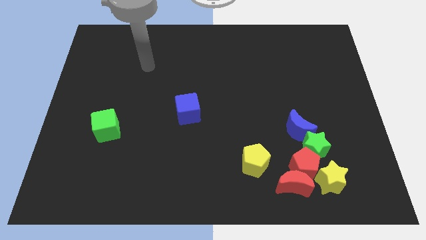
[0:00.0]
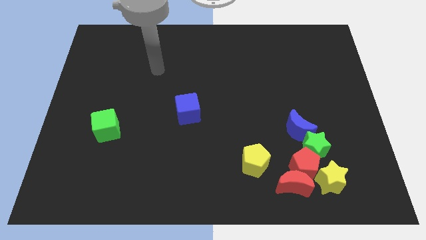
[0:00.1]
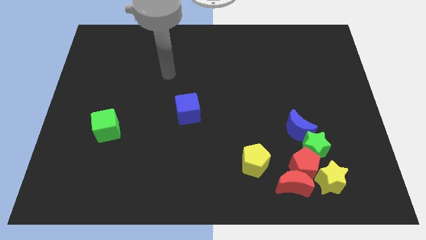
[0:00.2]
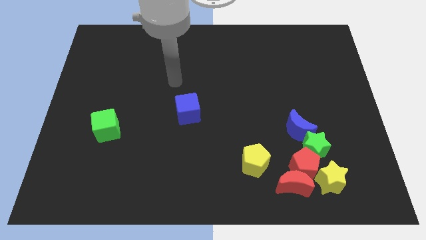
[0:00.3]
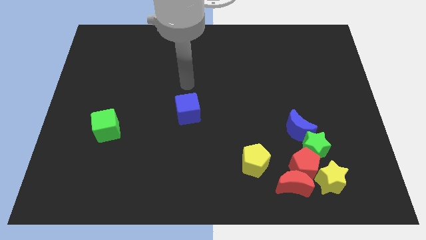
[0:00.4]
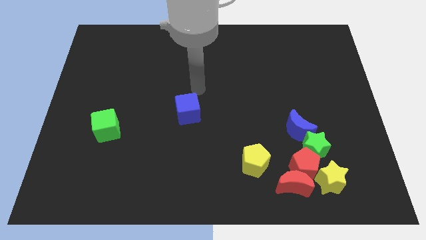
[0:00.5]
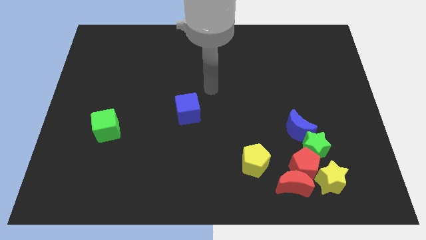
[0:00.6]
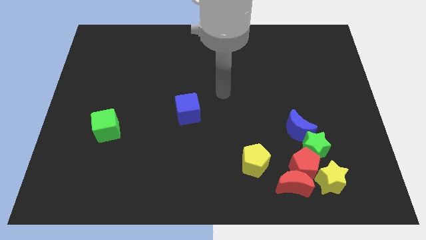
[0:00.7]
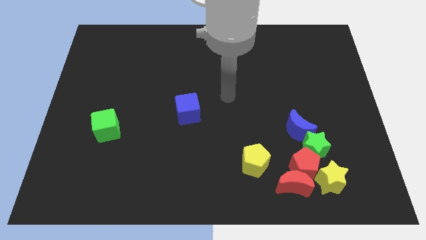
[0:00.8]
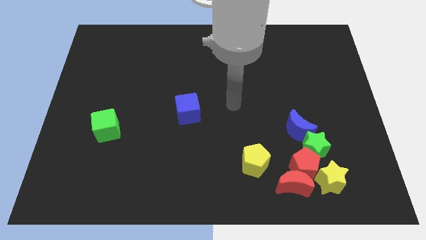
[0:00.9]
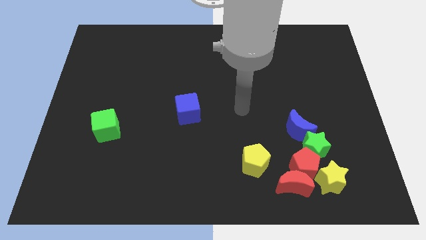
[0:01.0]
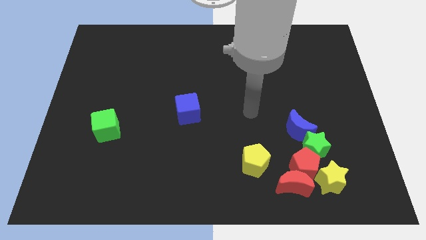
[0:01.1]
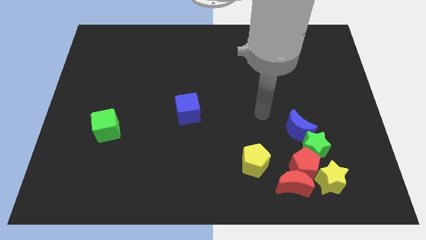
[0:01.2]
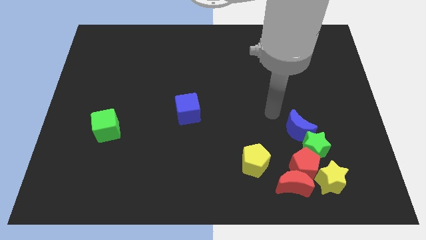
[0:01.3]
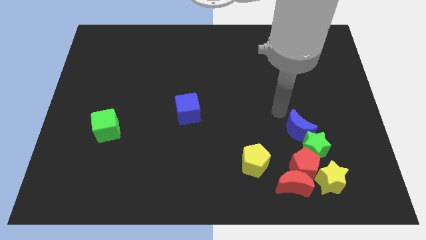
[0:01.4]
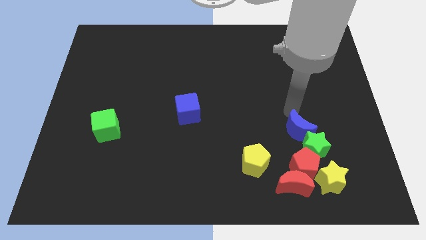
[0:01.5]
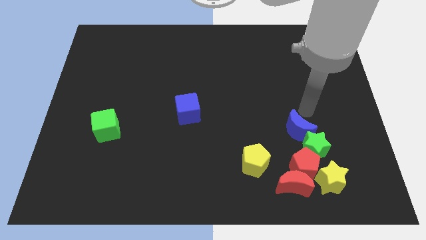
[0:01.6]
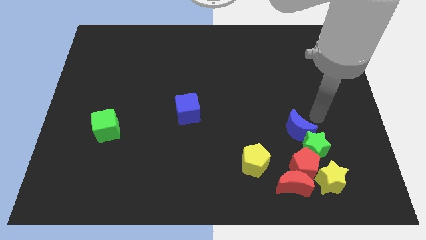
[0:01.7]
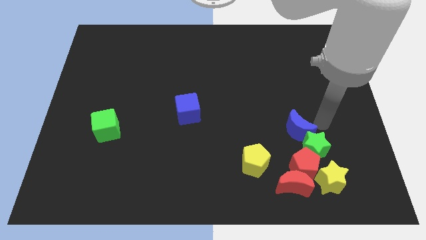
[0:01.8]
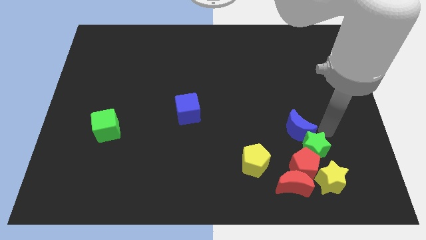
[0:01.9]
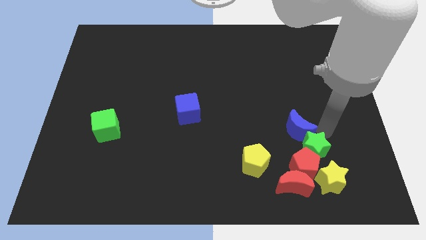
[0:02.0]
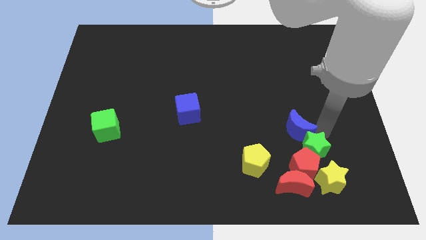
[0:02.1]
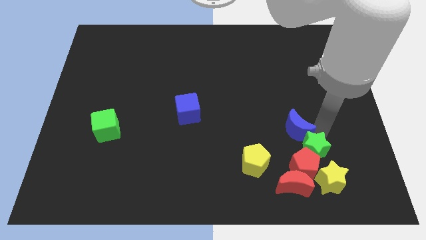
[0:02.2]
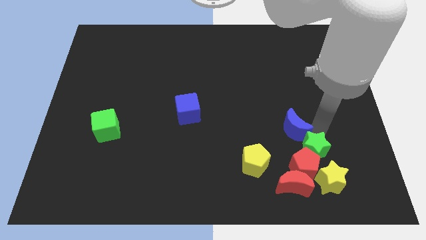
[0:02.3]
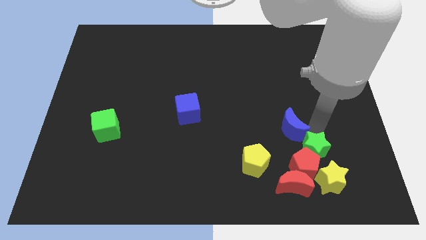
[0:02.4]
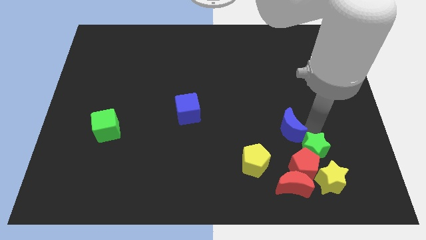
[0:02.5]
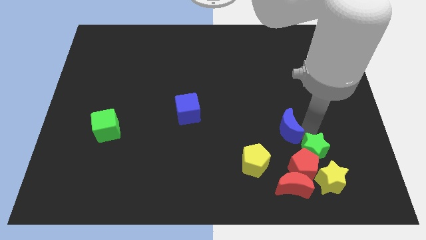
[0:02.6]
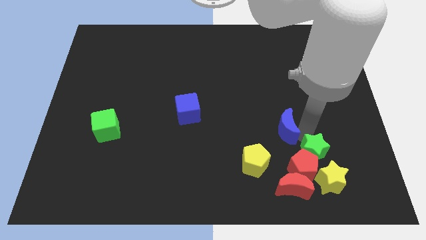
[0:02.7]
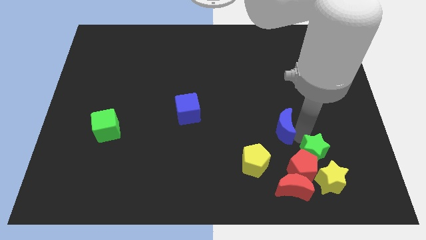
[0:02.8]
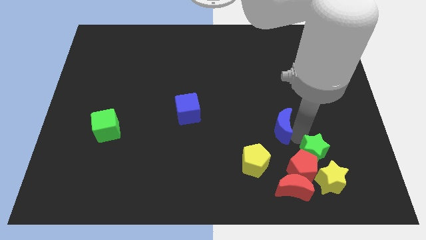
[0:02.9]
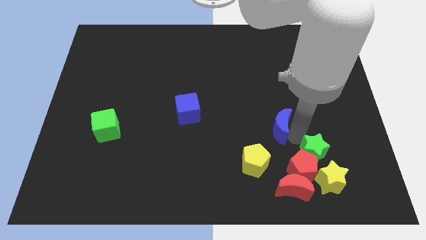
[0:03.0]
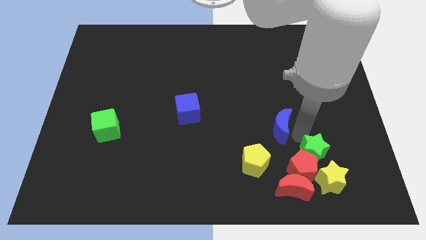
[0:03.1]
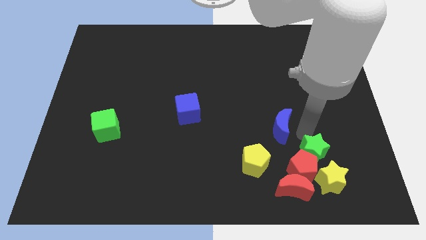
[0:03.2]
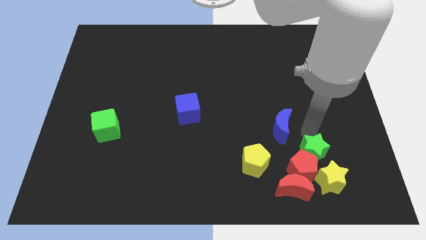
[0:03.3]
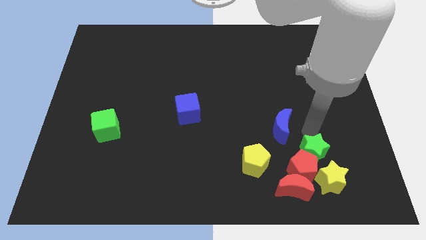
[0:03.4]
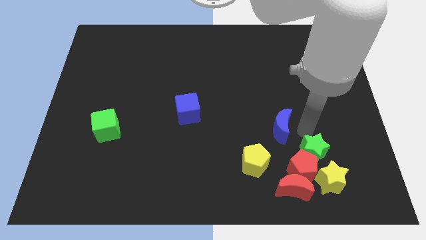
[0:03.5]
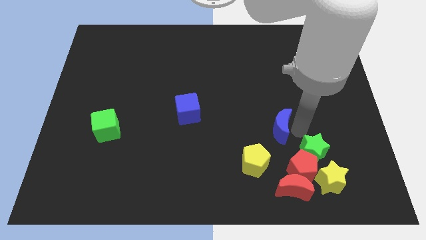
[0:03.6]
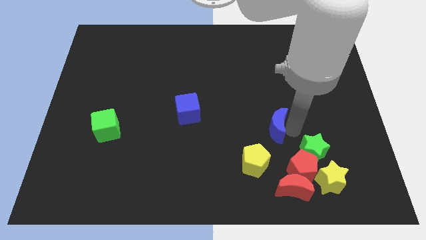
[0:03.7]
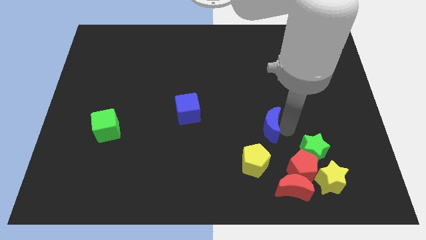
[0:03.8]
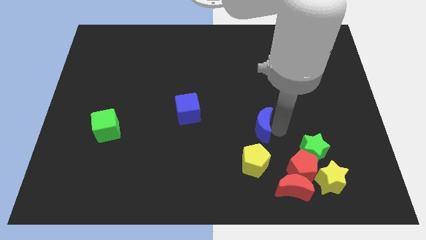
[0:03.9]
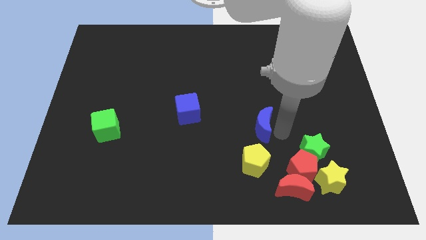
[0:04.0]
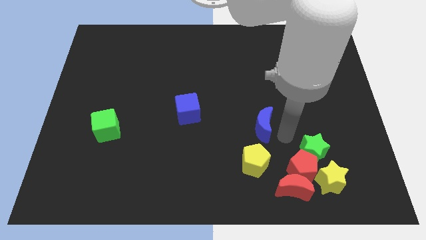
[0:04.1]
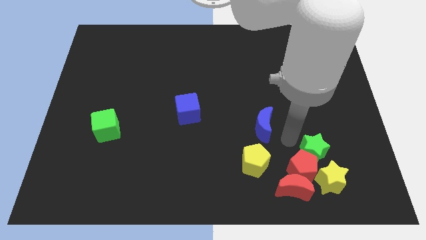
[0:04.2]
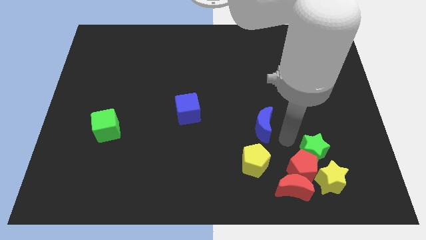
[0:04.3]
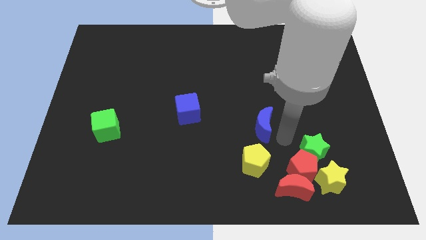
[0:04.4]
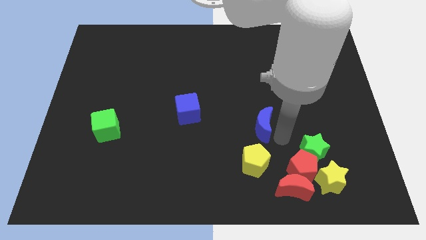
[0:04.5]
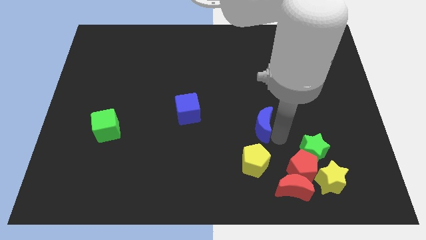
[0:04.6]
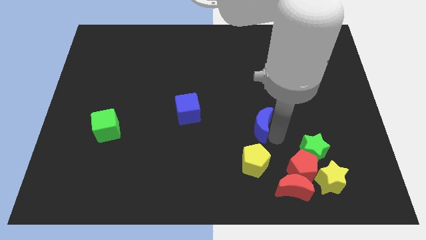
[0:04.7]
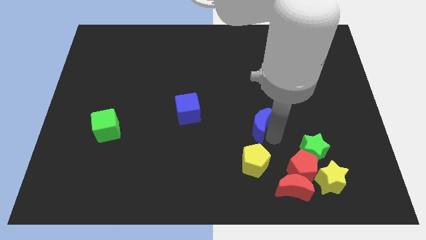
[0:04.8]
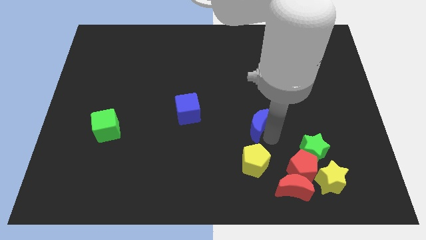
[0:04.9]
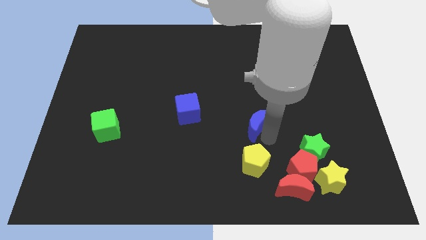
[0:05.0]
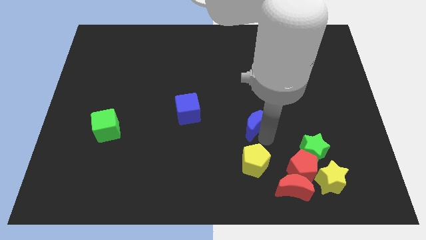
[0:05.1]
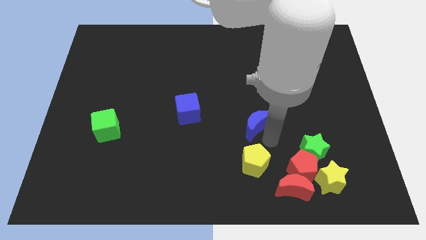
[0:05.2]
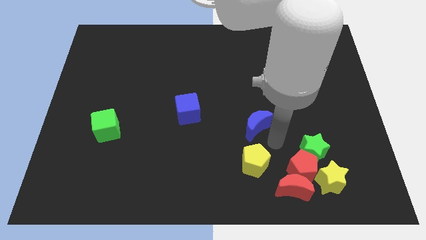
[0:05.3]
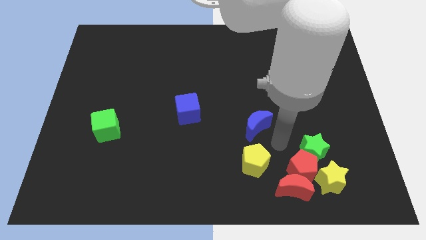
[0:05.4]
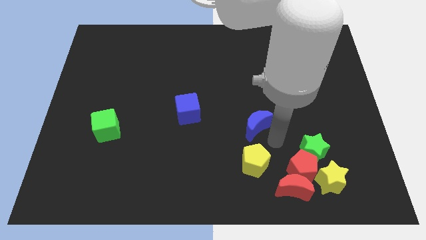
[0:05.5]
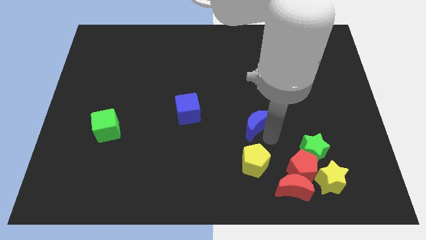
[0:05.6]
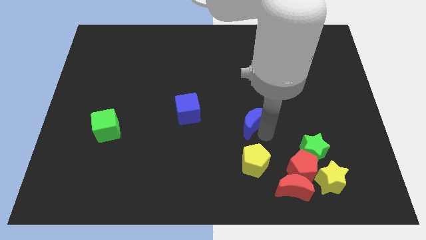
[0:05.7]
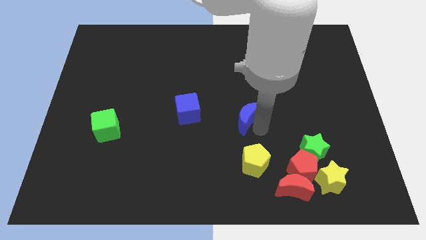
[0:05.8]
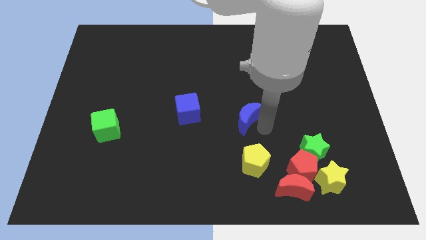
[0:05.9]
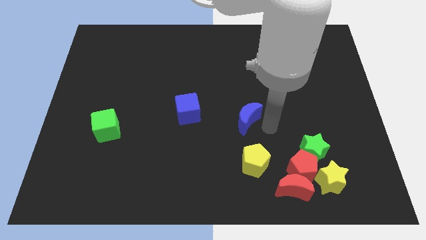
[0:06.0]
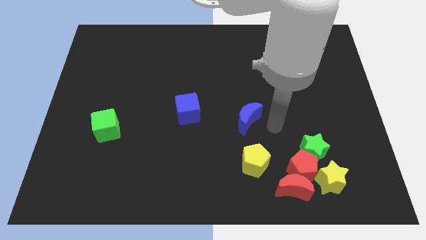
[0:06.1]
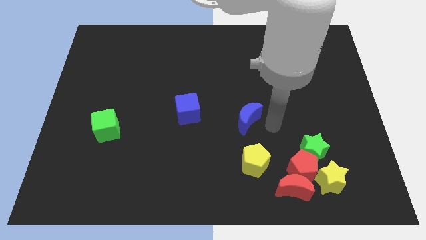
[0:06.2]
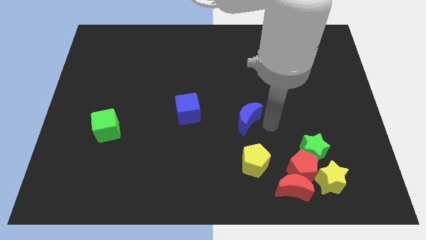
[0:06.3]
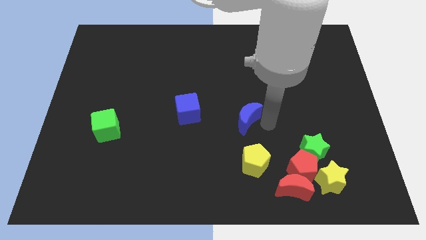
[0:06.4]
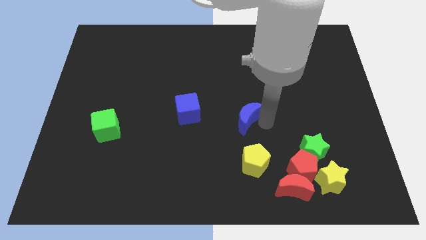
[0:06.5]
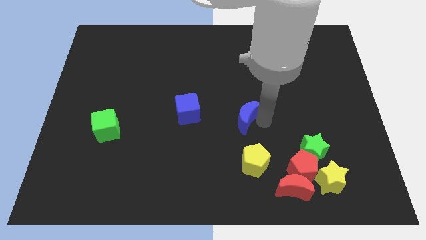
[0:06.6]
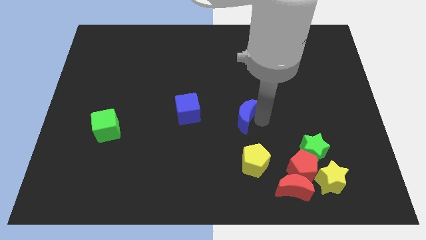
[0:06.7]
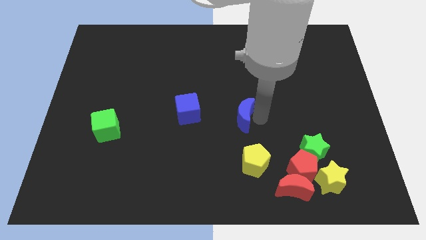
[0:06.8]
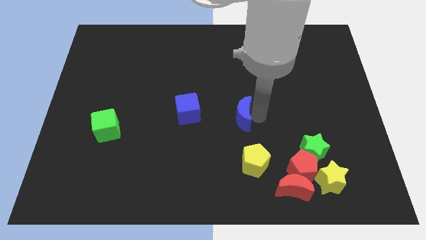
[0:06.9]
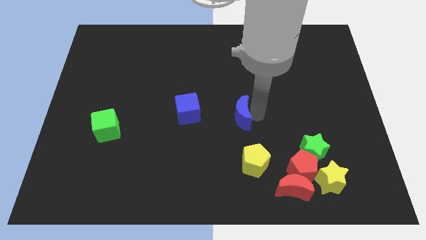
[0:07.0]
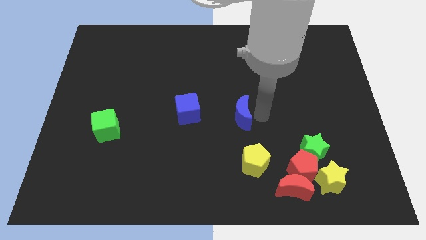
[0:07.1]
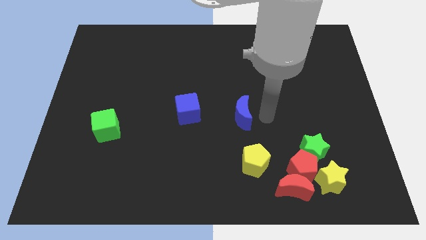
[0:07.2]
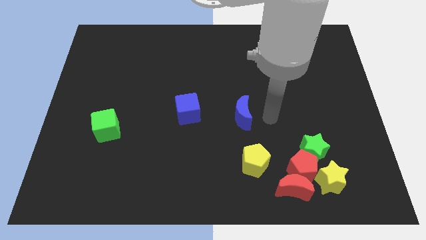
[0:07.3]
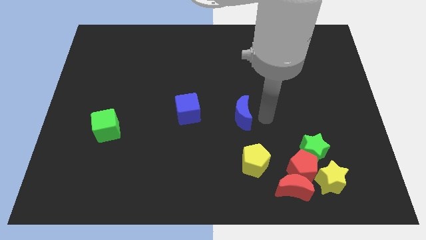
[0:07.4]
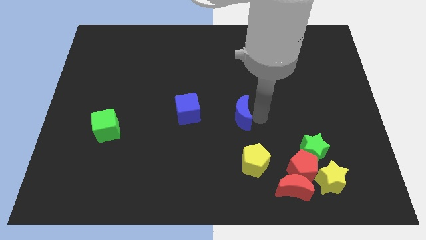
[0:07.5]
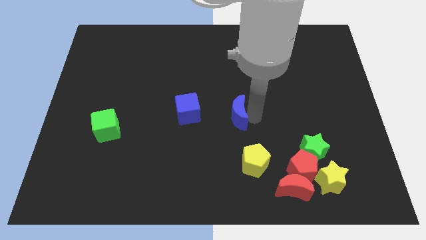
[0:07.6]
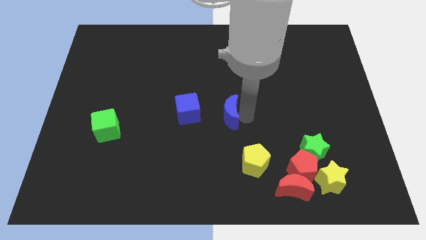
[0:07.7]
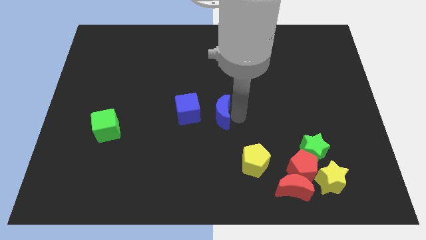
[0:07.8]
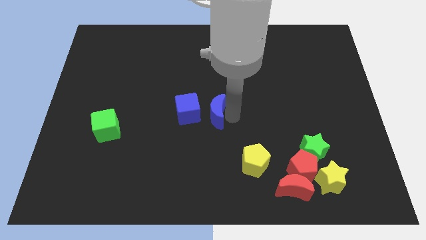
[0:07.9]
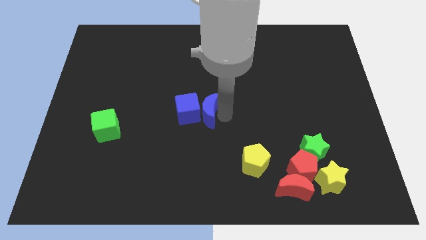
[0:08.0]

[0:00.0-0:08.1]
put the blue moon towards the blue cube

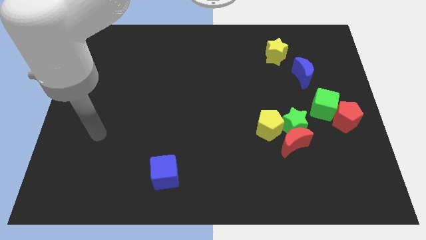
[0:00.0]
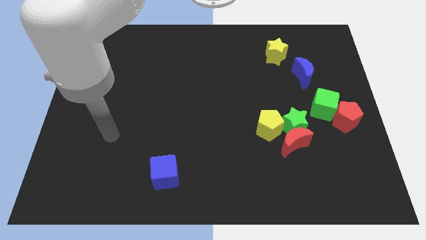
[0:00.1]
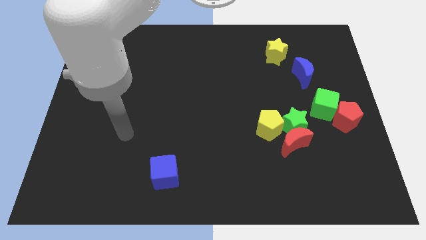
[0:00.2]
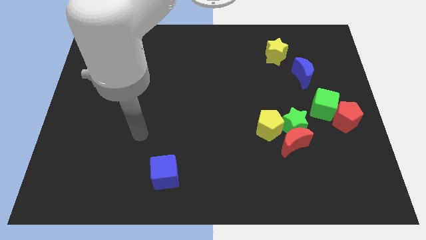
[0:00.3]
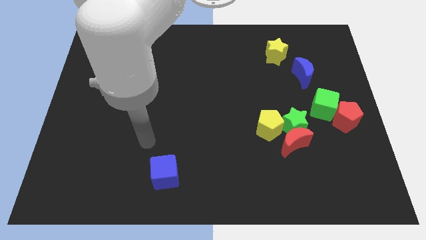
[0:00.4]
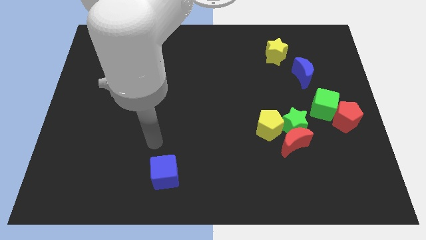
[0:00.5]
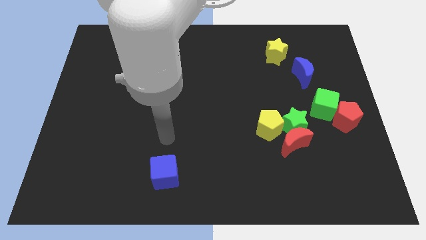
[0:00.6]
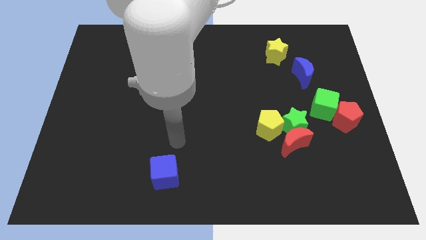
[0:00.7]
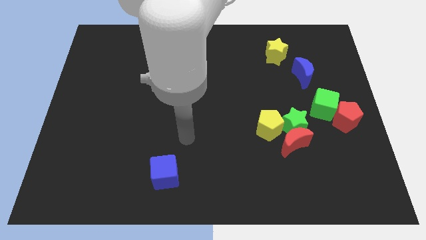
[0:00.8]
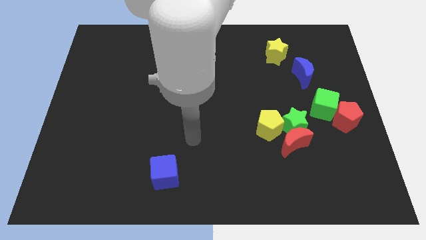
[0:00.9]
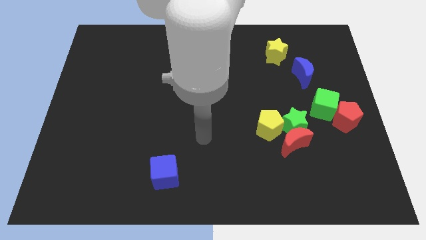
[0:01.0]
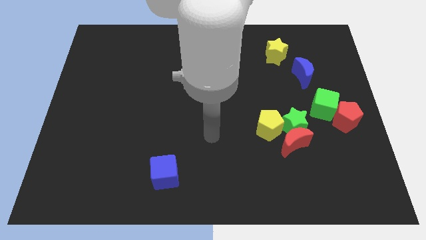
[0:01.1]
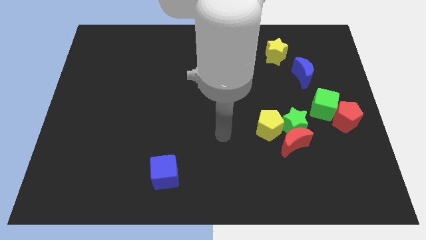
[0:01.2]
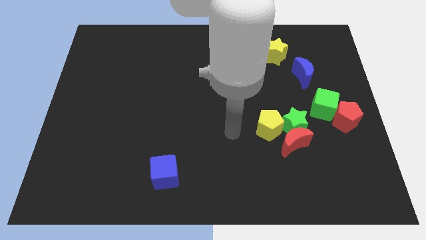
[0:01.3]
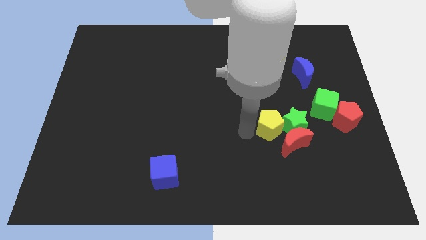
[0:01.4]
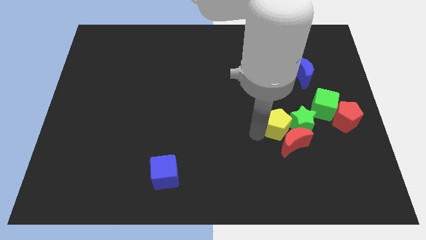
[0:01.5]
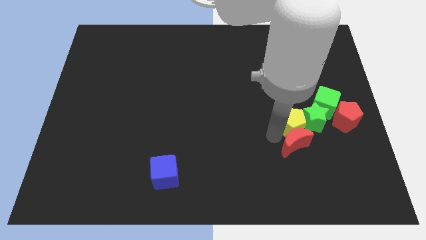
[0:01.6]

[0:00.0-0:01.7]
push the green star next to the green cube
